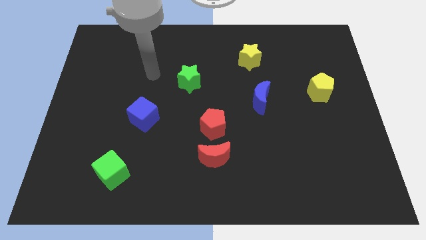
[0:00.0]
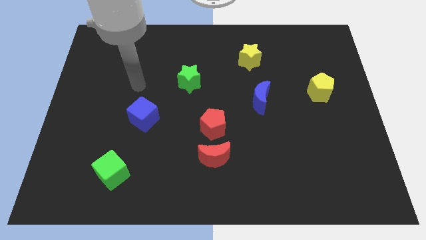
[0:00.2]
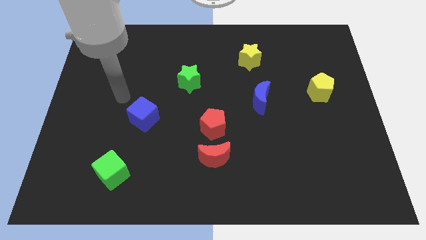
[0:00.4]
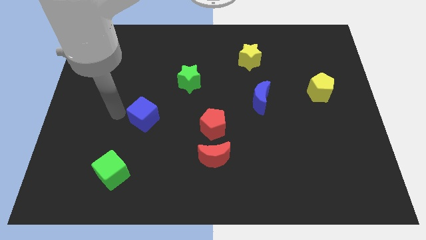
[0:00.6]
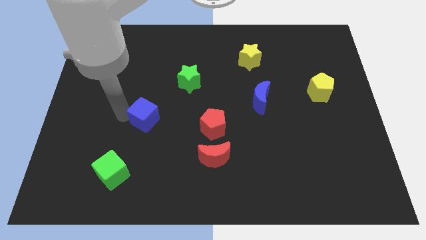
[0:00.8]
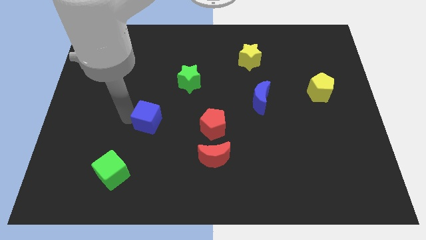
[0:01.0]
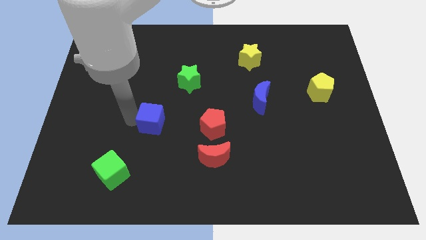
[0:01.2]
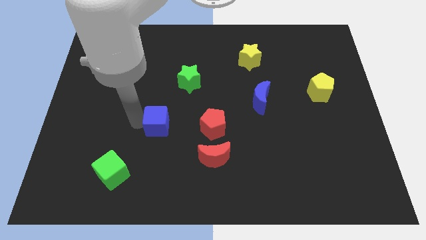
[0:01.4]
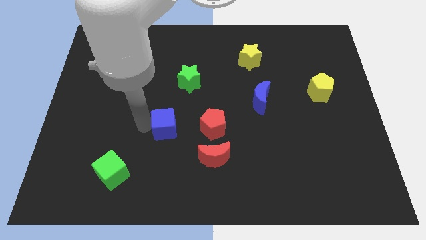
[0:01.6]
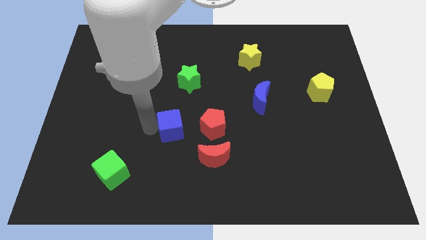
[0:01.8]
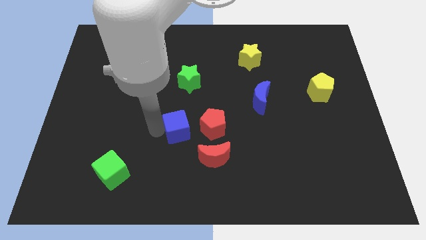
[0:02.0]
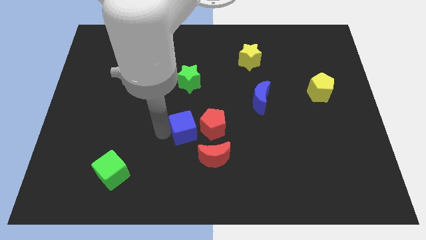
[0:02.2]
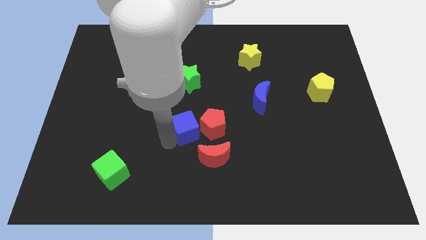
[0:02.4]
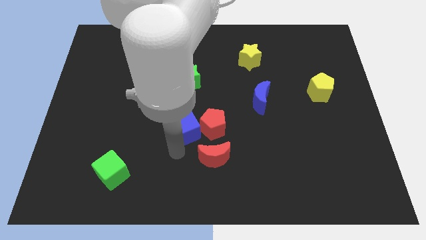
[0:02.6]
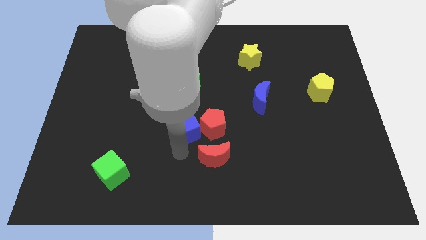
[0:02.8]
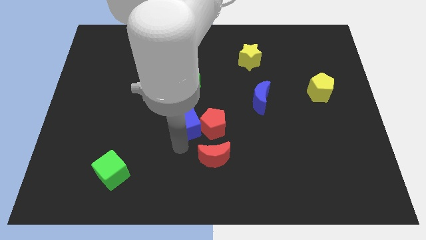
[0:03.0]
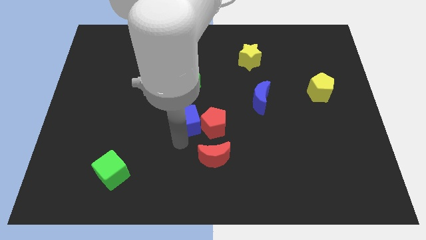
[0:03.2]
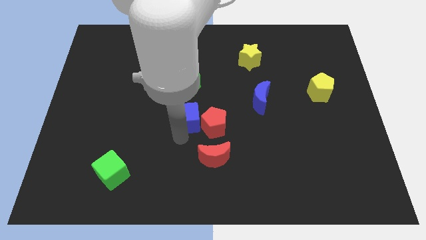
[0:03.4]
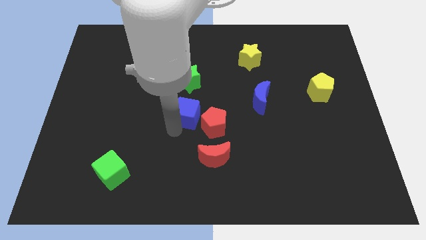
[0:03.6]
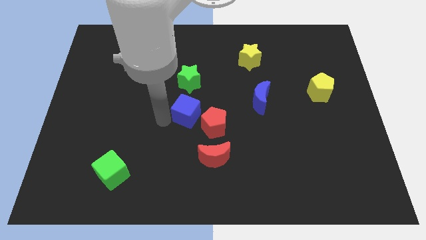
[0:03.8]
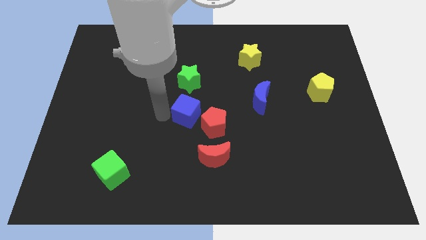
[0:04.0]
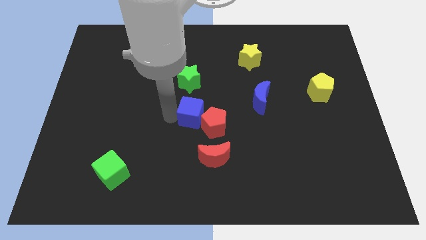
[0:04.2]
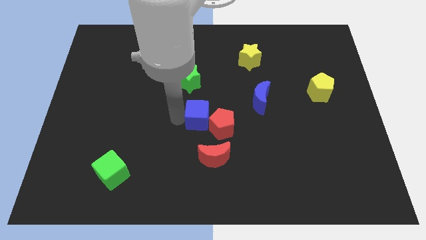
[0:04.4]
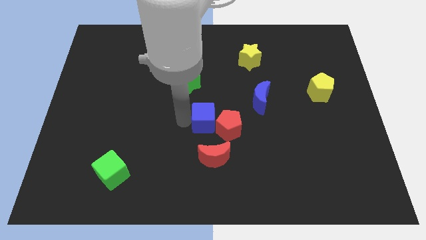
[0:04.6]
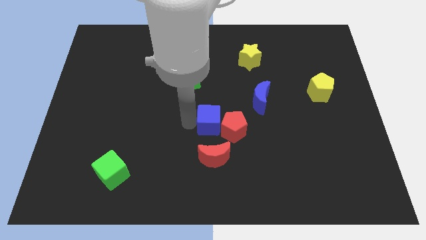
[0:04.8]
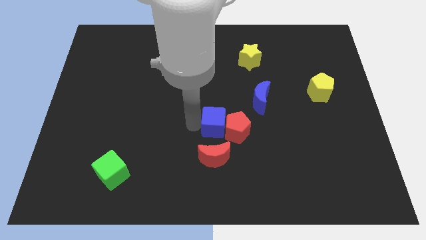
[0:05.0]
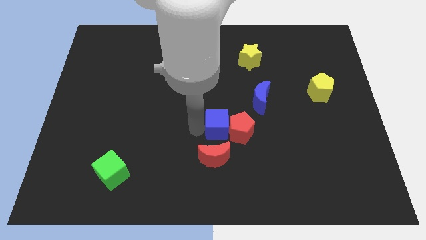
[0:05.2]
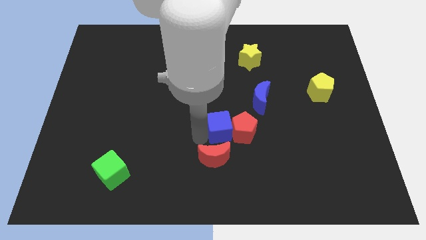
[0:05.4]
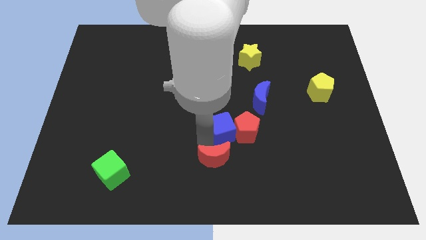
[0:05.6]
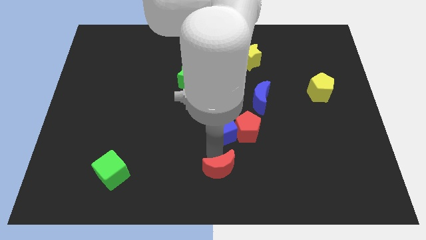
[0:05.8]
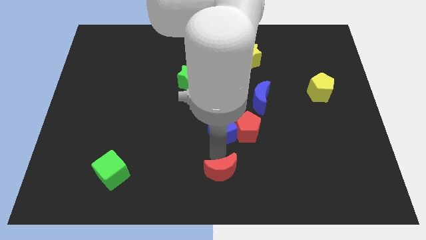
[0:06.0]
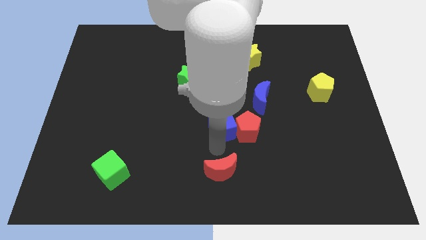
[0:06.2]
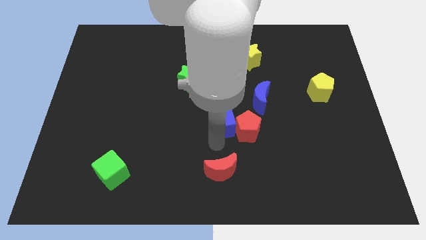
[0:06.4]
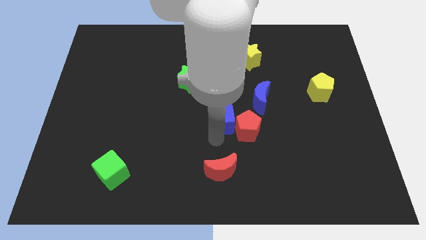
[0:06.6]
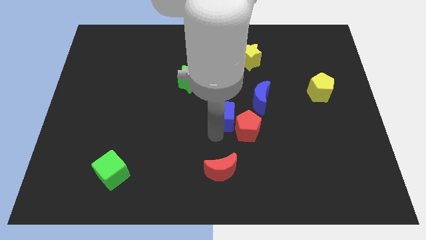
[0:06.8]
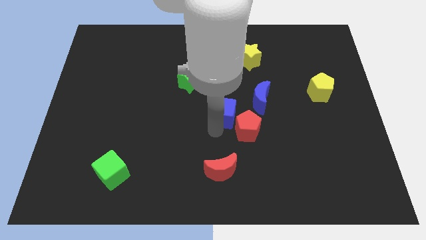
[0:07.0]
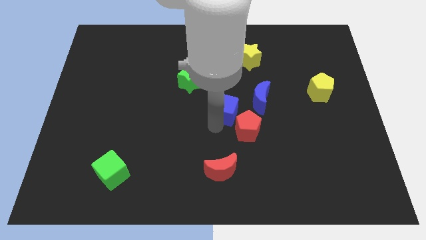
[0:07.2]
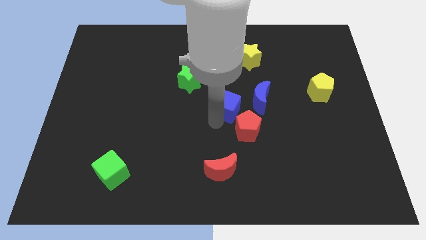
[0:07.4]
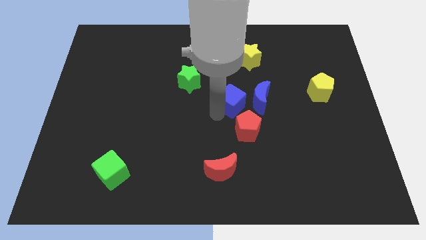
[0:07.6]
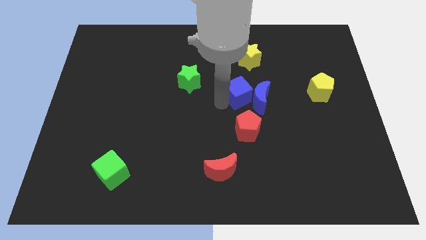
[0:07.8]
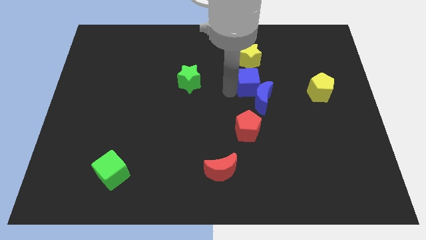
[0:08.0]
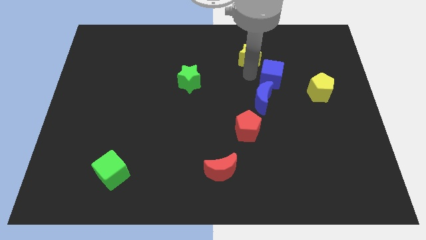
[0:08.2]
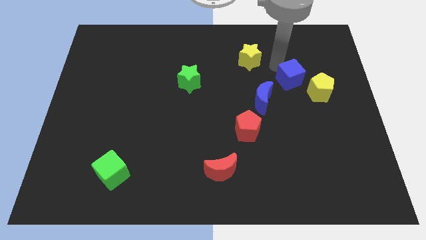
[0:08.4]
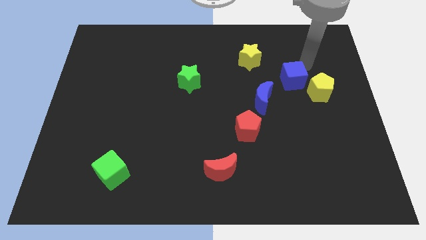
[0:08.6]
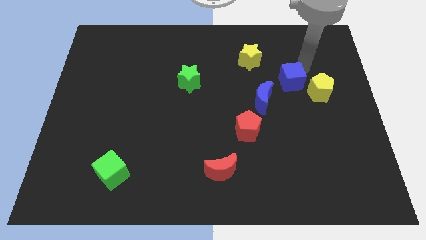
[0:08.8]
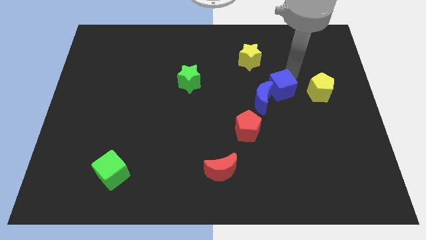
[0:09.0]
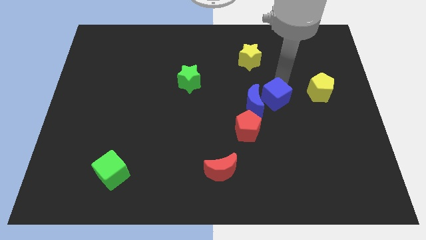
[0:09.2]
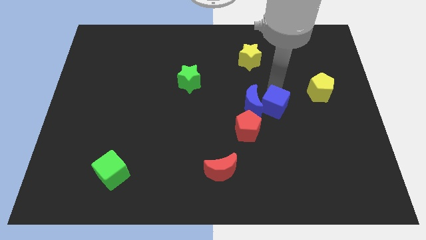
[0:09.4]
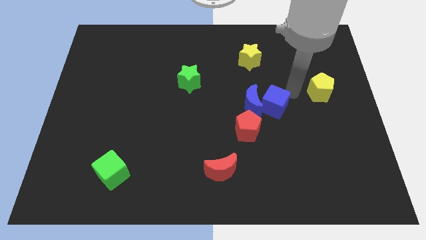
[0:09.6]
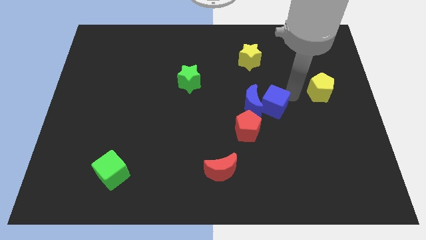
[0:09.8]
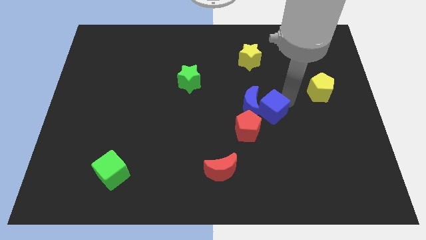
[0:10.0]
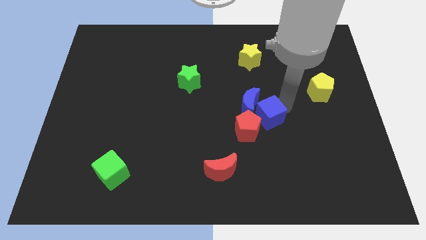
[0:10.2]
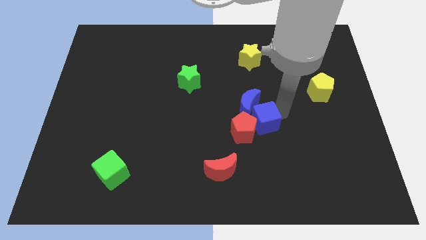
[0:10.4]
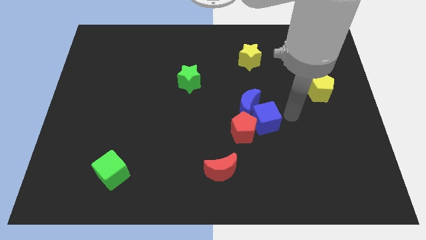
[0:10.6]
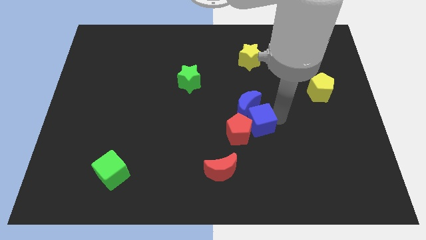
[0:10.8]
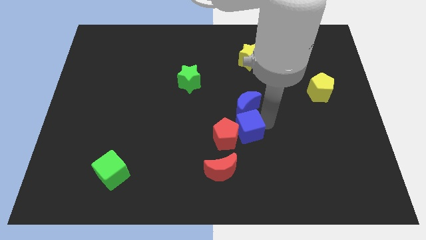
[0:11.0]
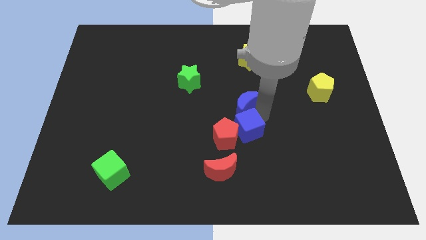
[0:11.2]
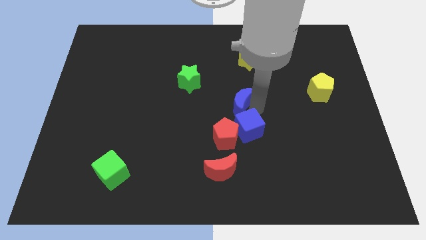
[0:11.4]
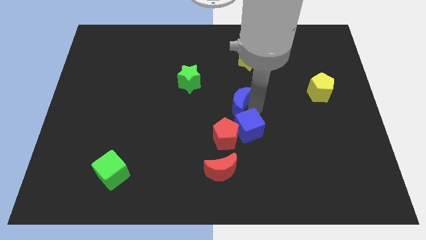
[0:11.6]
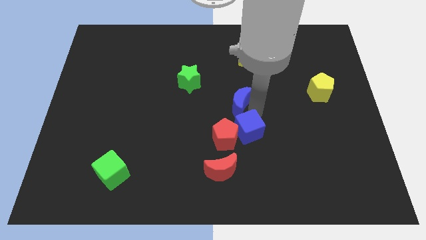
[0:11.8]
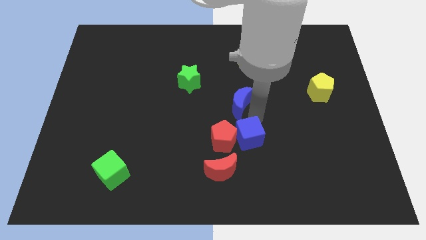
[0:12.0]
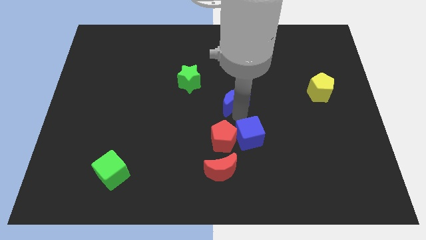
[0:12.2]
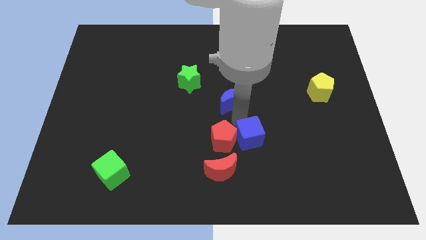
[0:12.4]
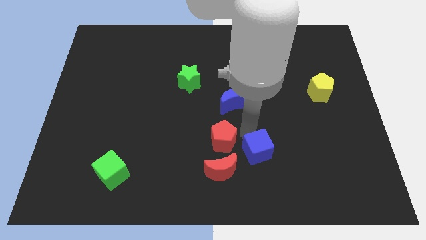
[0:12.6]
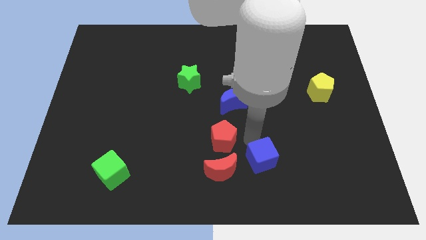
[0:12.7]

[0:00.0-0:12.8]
slide the blue cube to the right side of the red moon

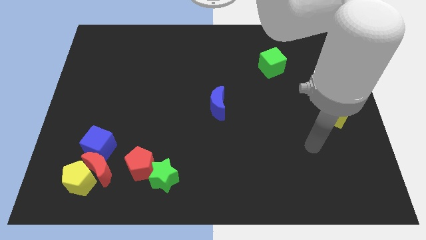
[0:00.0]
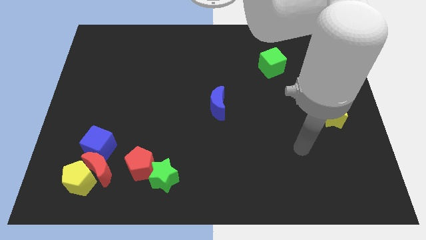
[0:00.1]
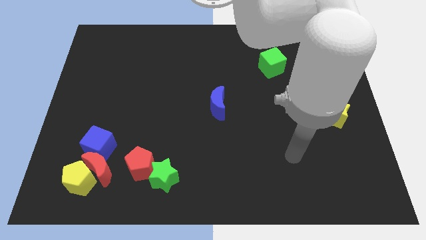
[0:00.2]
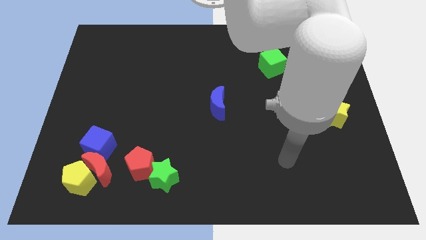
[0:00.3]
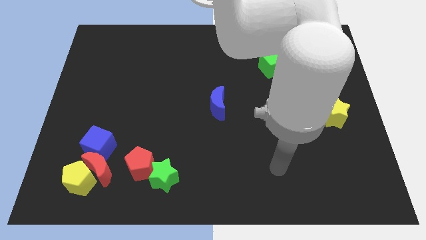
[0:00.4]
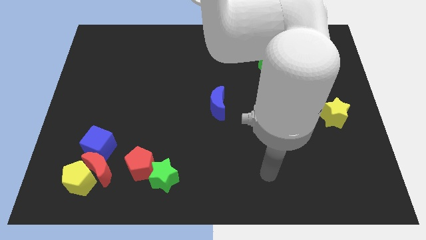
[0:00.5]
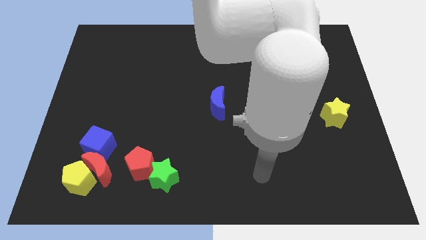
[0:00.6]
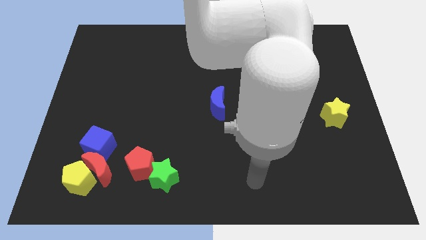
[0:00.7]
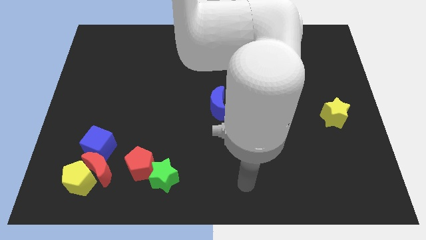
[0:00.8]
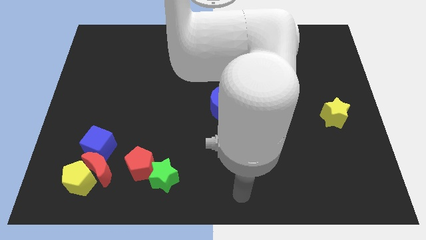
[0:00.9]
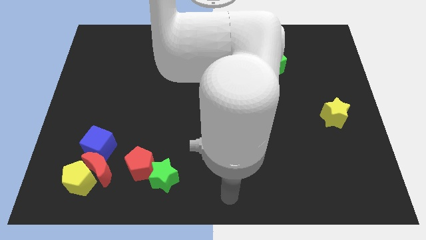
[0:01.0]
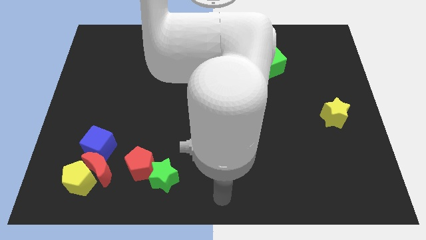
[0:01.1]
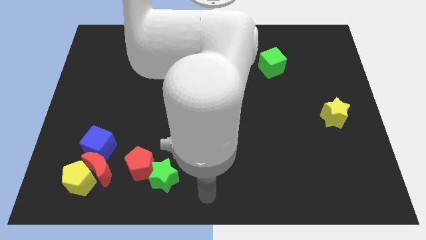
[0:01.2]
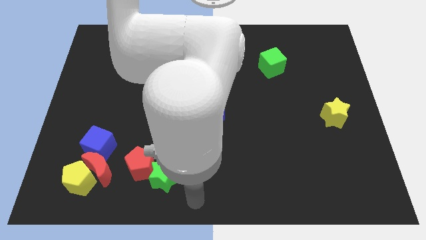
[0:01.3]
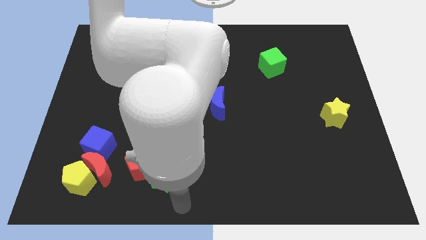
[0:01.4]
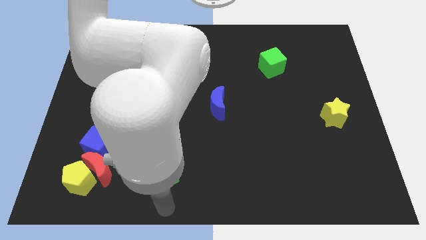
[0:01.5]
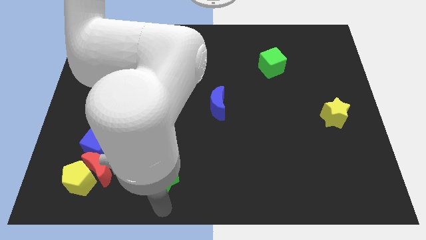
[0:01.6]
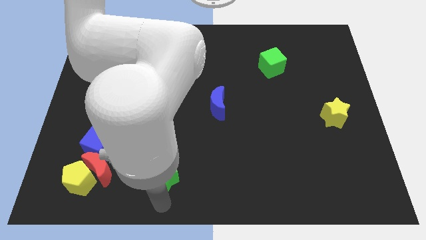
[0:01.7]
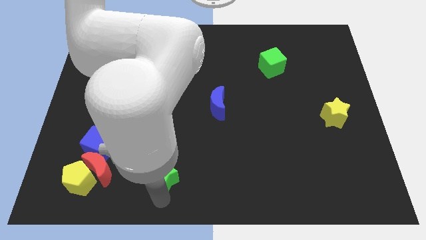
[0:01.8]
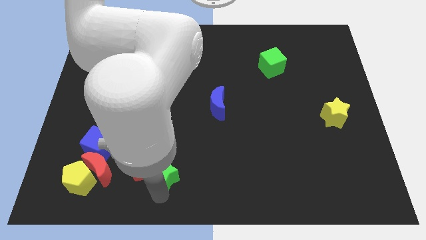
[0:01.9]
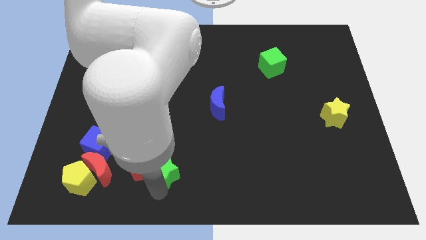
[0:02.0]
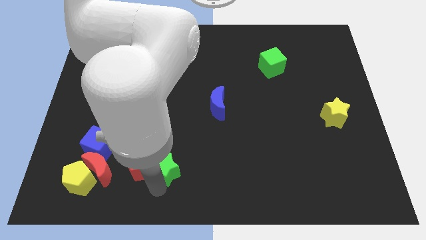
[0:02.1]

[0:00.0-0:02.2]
put the green star to the top right side of the red pentagon
